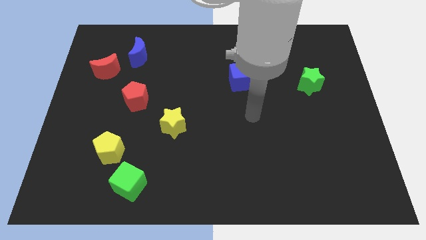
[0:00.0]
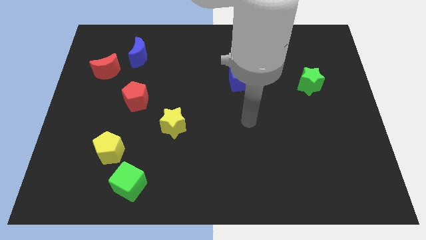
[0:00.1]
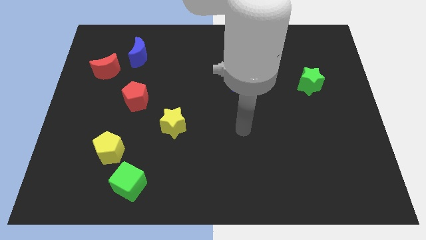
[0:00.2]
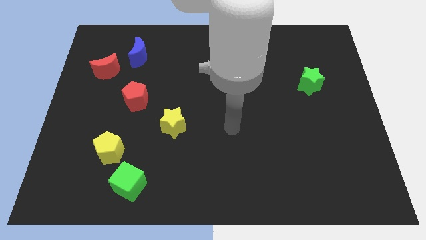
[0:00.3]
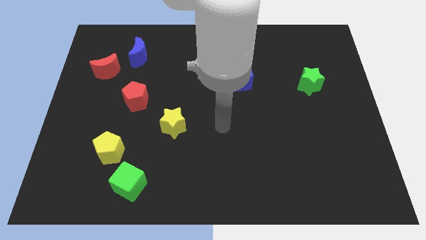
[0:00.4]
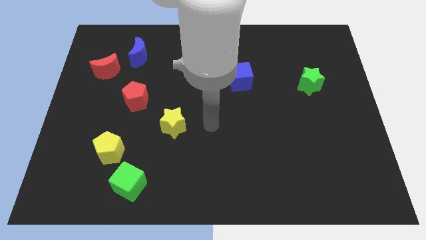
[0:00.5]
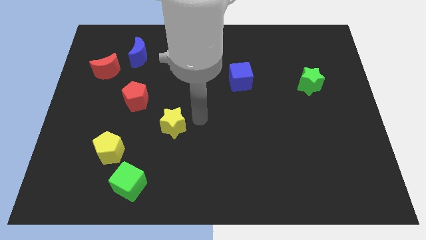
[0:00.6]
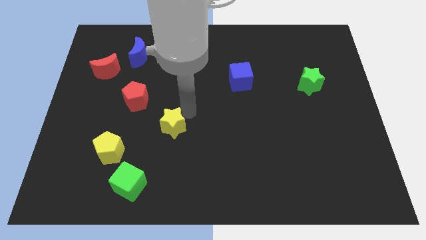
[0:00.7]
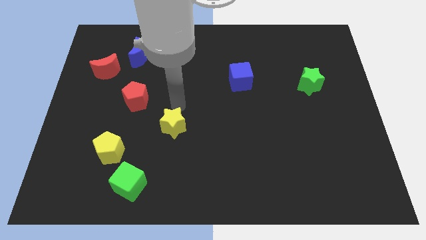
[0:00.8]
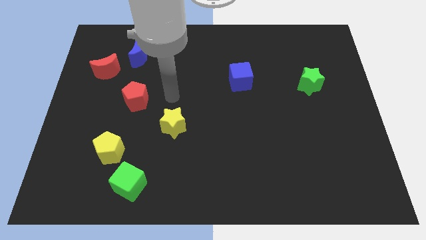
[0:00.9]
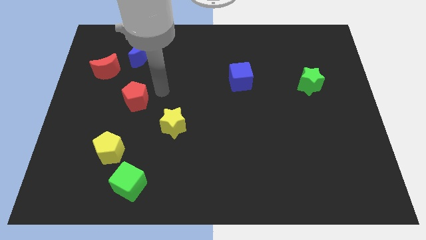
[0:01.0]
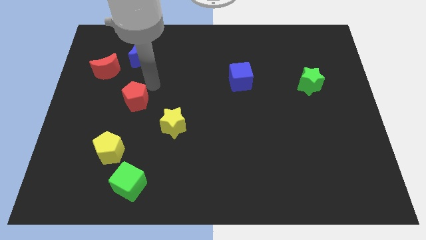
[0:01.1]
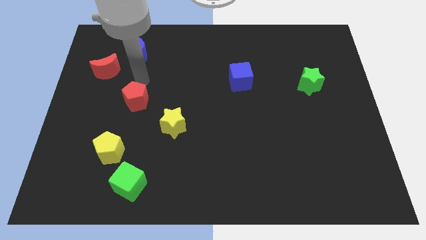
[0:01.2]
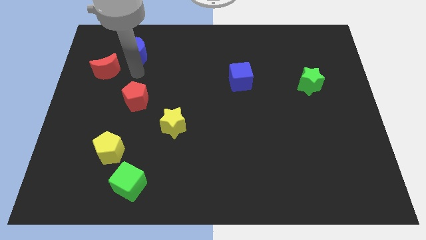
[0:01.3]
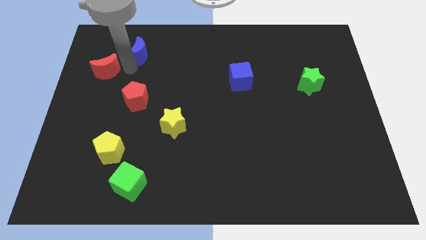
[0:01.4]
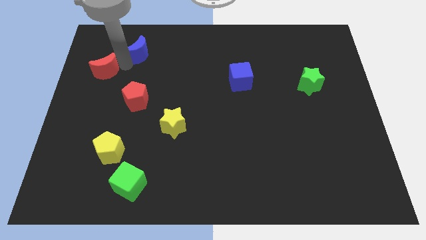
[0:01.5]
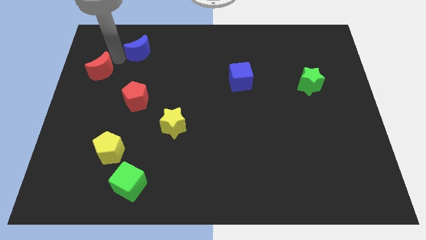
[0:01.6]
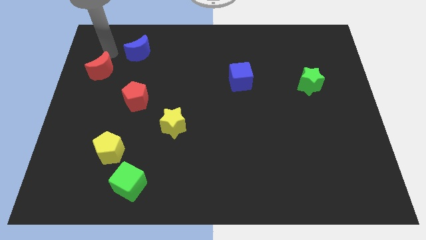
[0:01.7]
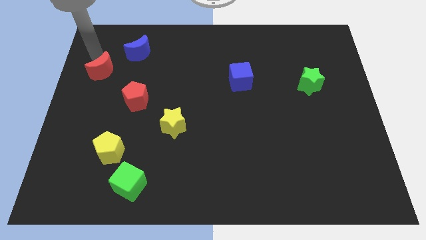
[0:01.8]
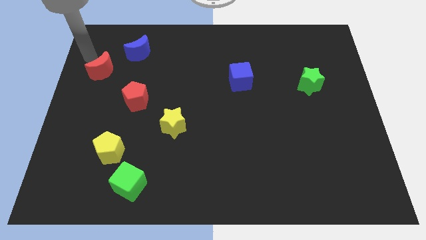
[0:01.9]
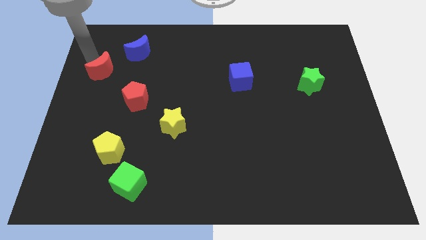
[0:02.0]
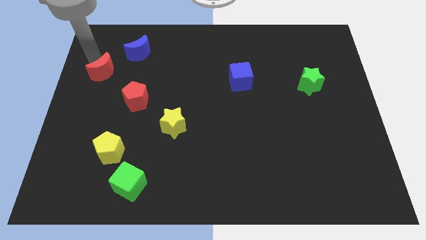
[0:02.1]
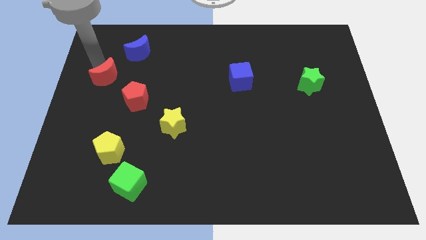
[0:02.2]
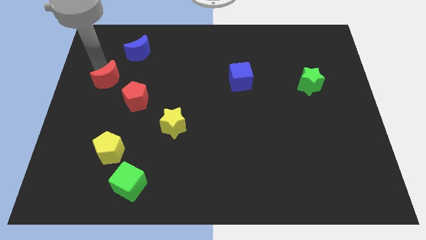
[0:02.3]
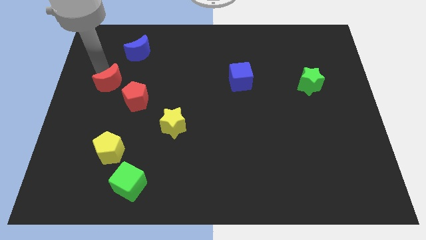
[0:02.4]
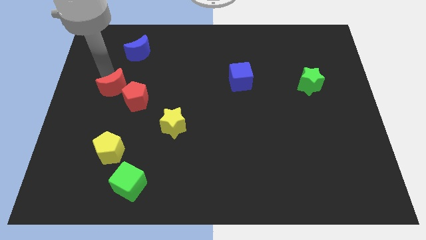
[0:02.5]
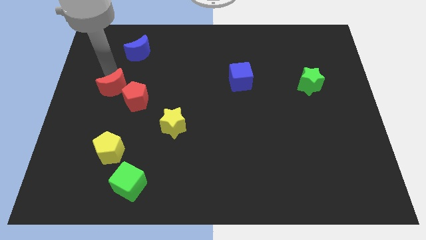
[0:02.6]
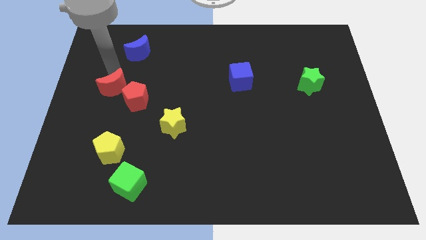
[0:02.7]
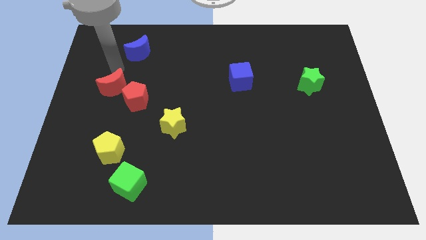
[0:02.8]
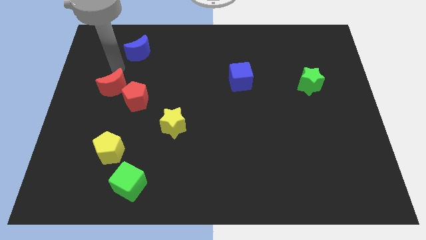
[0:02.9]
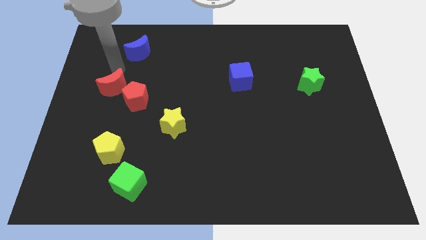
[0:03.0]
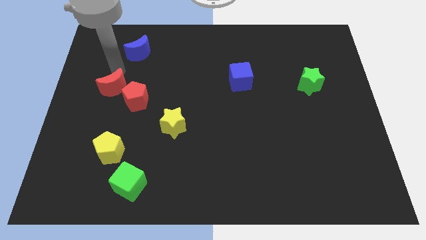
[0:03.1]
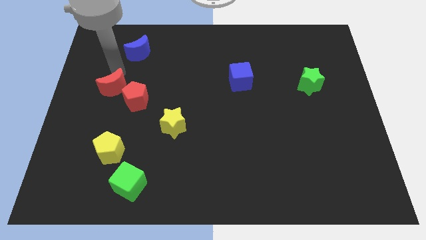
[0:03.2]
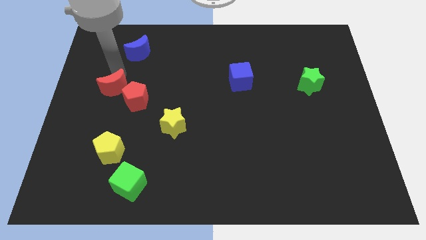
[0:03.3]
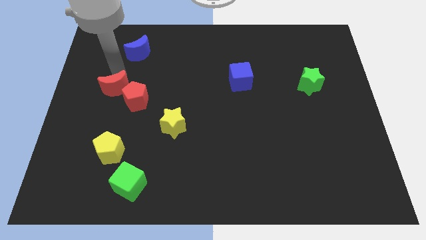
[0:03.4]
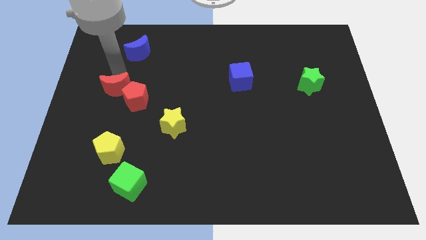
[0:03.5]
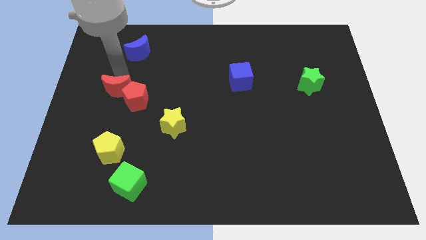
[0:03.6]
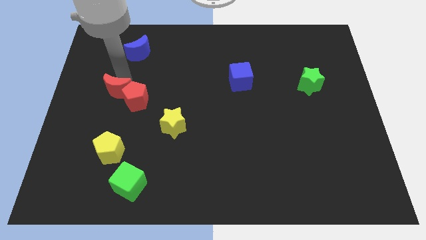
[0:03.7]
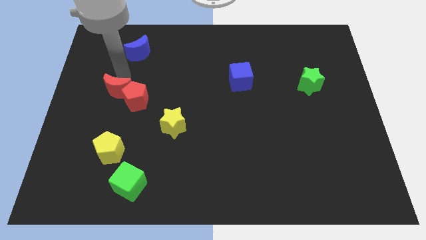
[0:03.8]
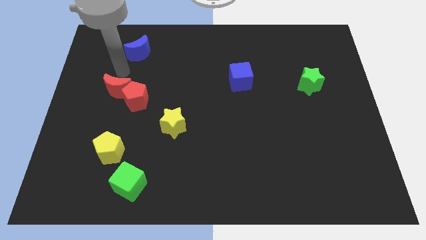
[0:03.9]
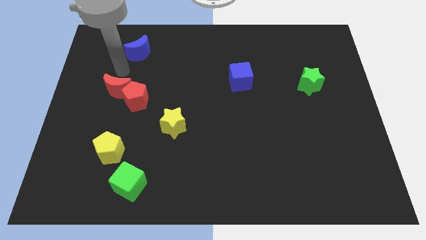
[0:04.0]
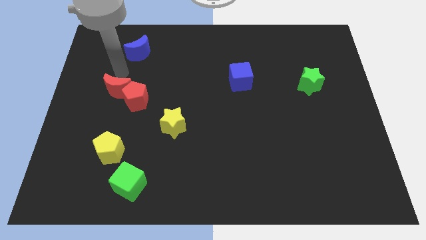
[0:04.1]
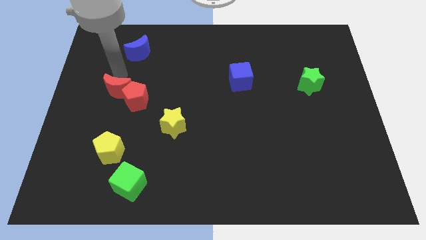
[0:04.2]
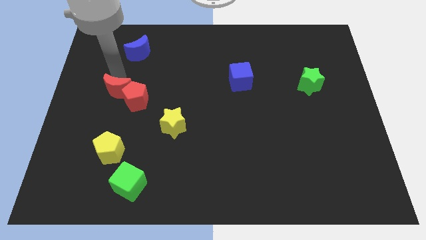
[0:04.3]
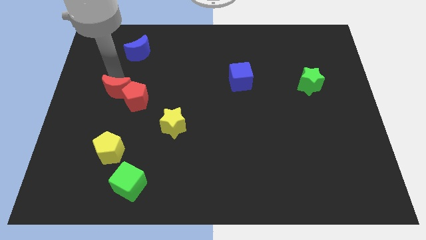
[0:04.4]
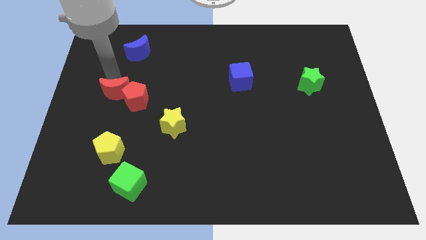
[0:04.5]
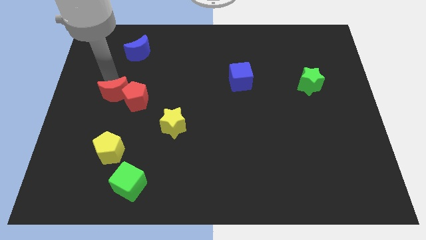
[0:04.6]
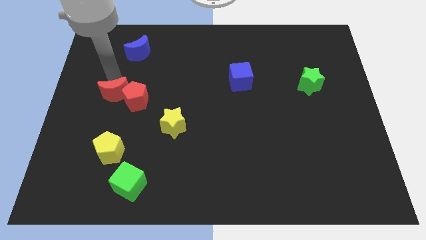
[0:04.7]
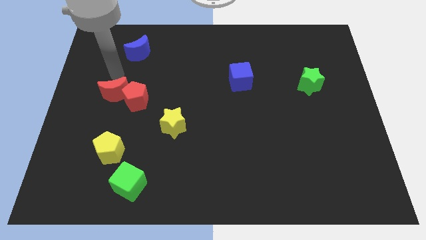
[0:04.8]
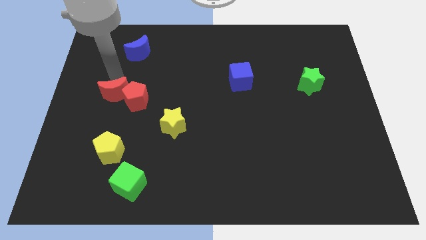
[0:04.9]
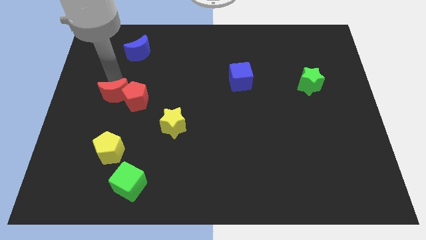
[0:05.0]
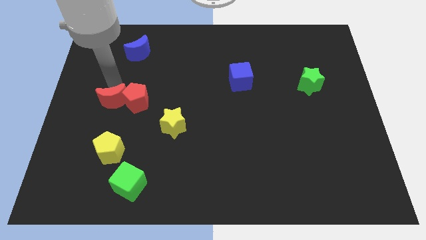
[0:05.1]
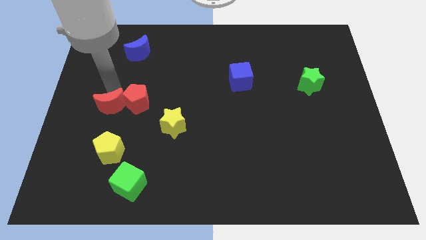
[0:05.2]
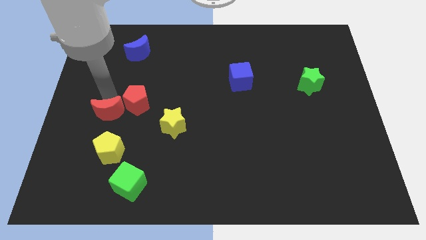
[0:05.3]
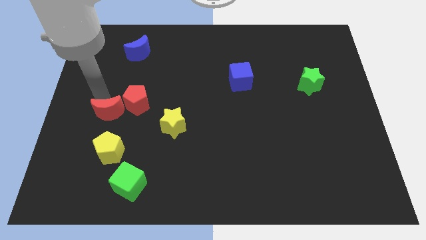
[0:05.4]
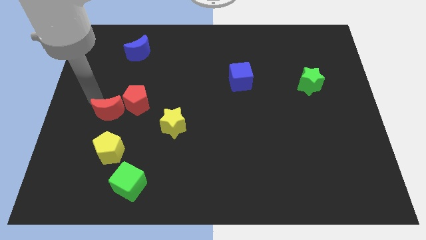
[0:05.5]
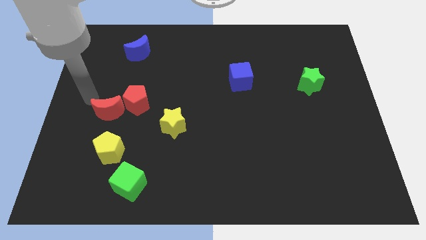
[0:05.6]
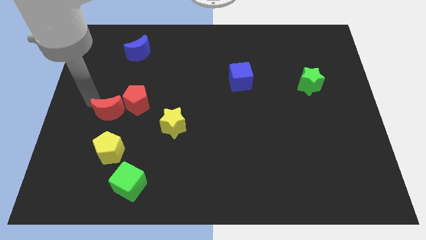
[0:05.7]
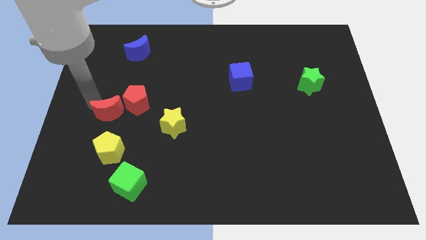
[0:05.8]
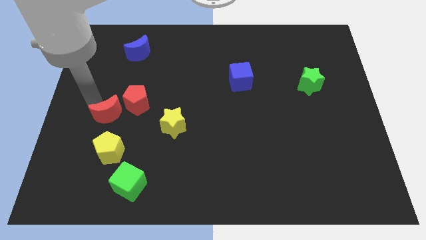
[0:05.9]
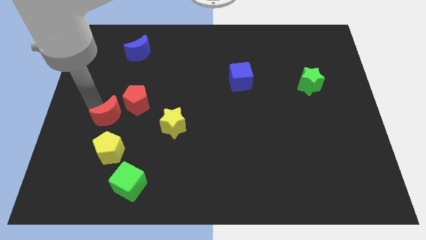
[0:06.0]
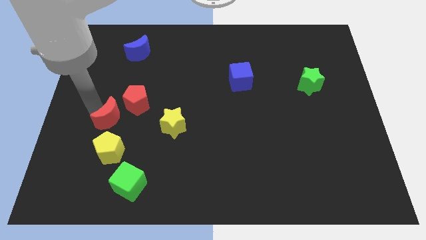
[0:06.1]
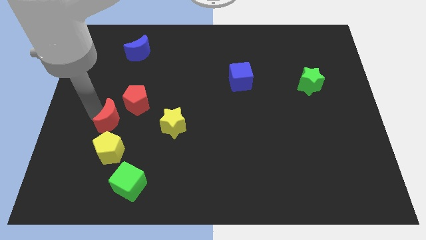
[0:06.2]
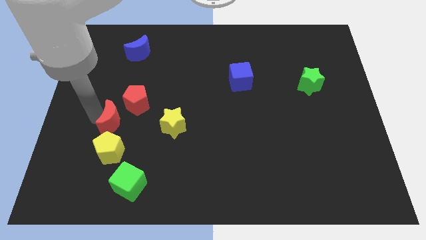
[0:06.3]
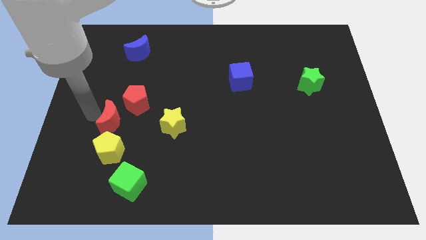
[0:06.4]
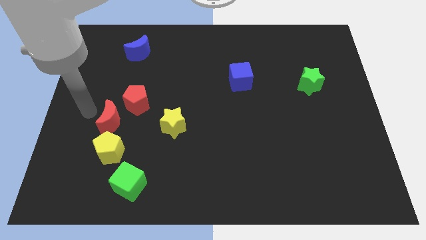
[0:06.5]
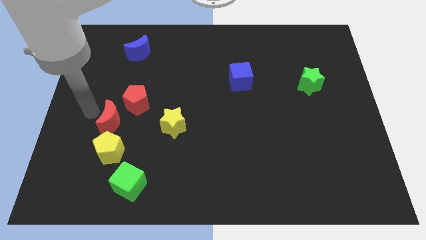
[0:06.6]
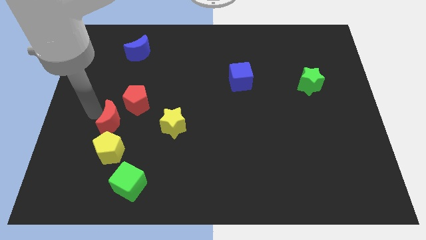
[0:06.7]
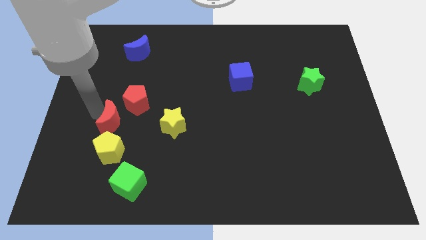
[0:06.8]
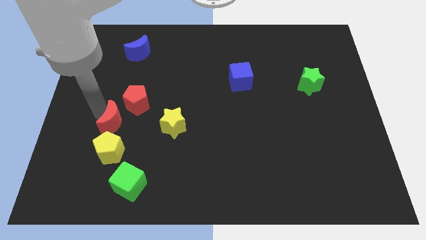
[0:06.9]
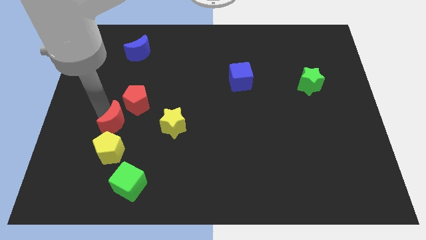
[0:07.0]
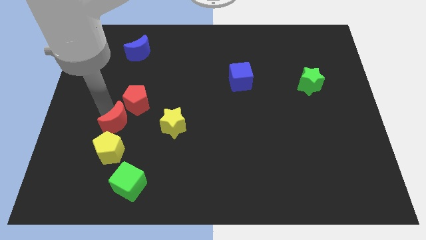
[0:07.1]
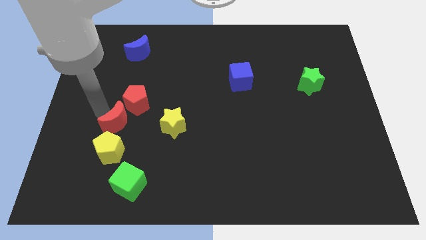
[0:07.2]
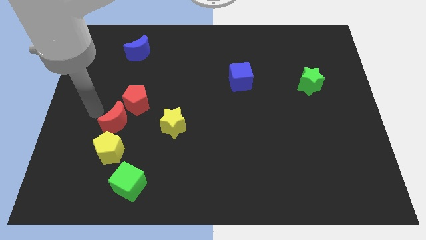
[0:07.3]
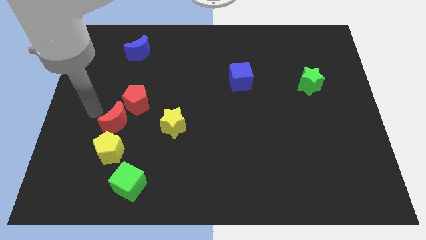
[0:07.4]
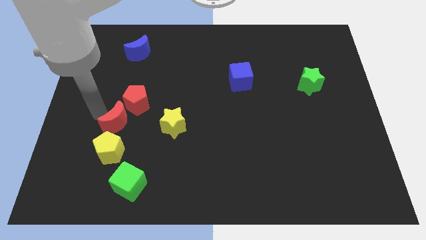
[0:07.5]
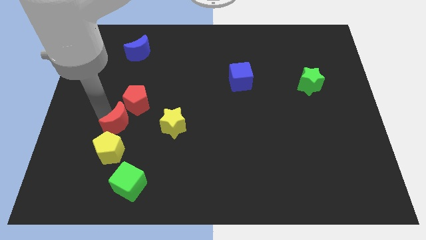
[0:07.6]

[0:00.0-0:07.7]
put the red moon to the top right side of the yellow pentagon
